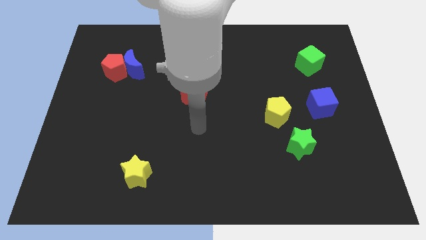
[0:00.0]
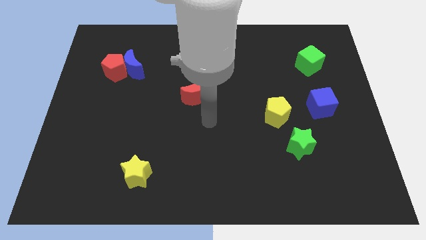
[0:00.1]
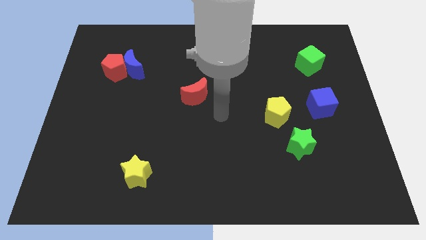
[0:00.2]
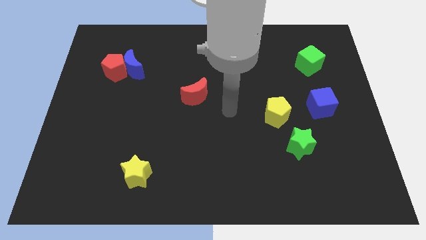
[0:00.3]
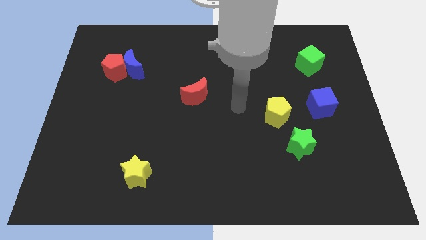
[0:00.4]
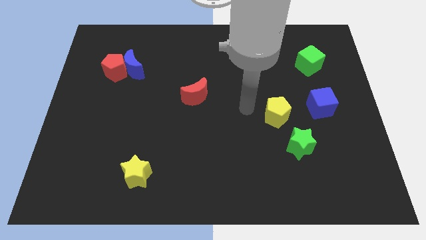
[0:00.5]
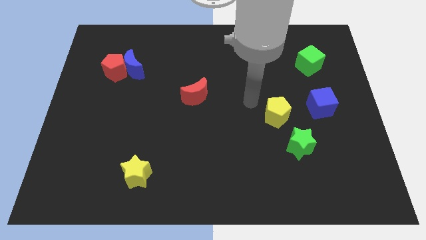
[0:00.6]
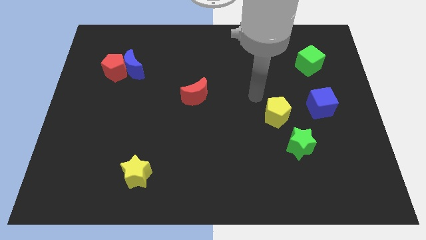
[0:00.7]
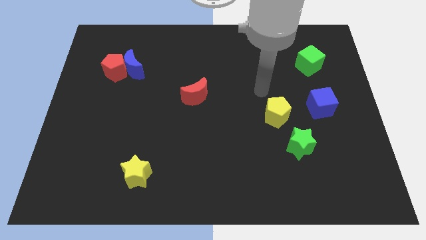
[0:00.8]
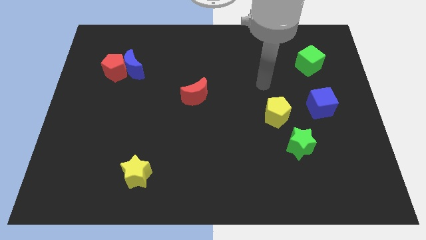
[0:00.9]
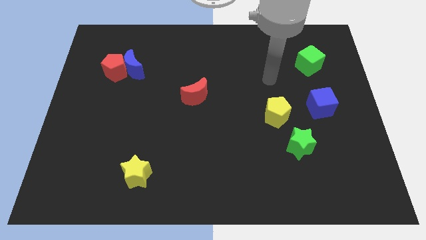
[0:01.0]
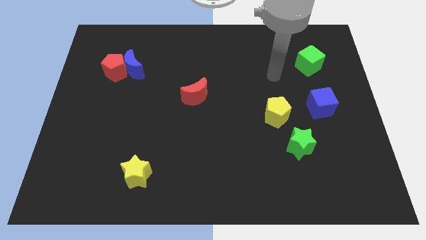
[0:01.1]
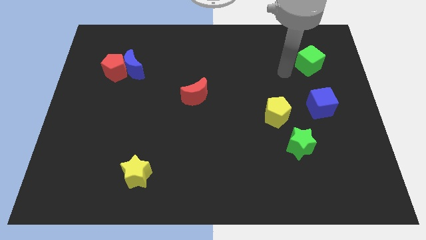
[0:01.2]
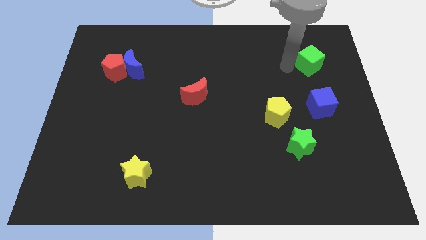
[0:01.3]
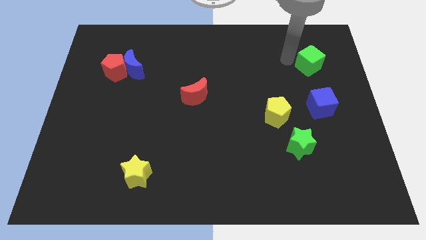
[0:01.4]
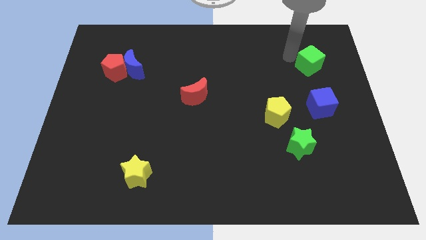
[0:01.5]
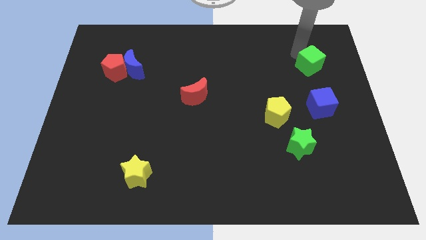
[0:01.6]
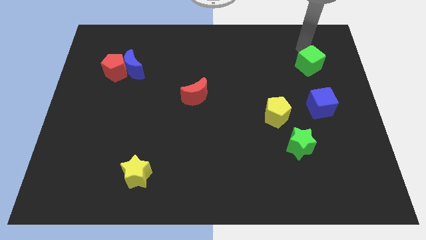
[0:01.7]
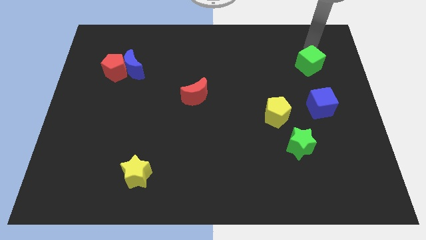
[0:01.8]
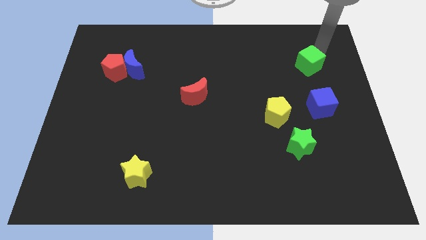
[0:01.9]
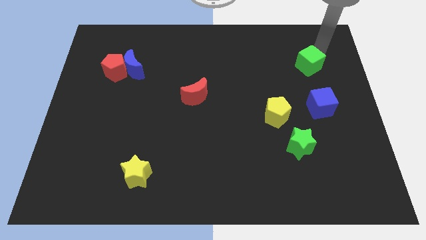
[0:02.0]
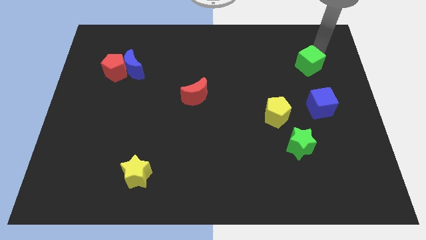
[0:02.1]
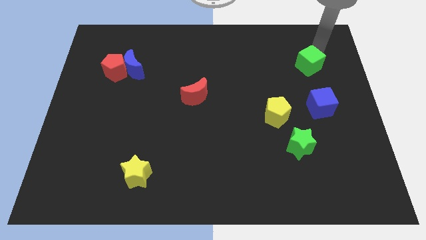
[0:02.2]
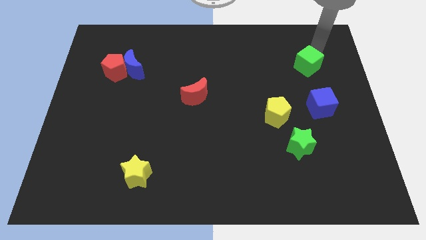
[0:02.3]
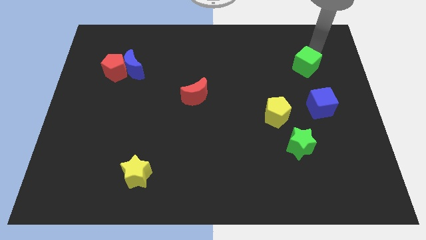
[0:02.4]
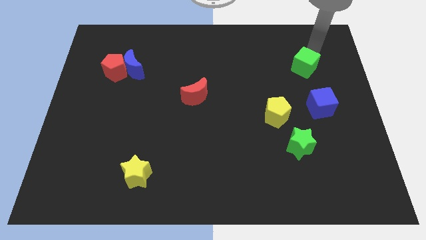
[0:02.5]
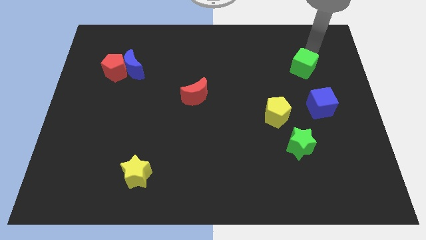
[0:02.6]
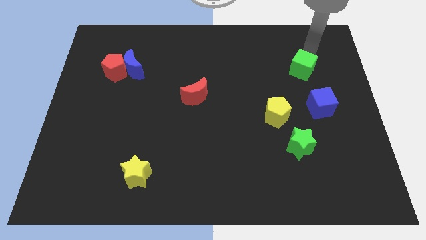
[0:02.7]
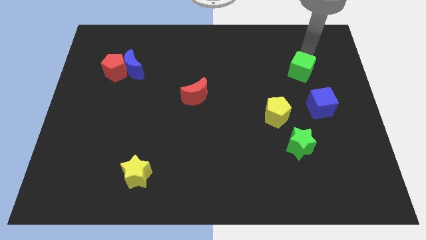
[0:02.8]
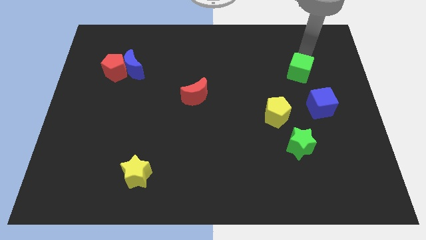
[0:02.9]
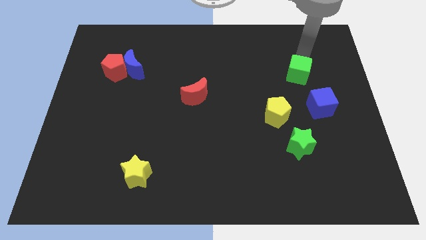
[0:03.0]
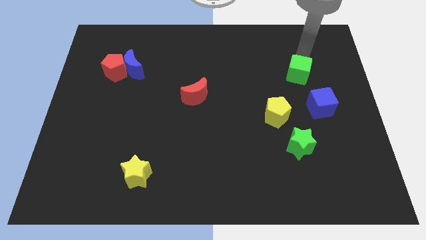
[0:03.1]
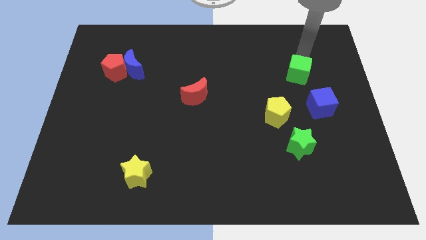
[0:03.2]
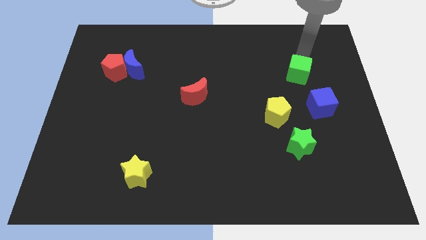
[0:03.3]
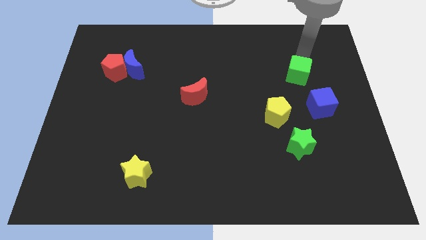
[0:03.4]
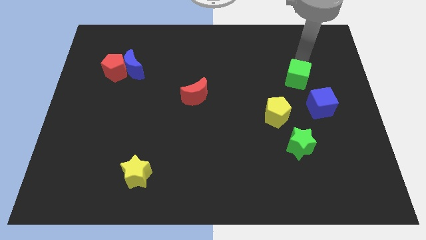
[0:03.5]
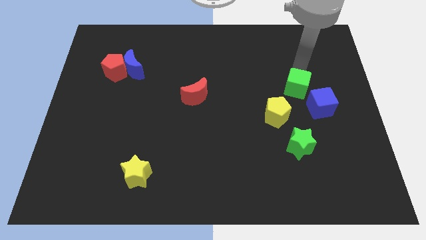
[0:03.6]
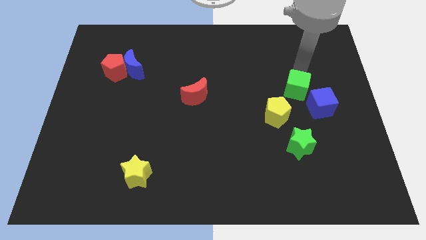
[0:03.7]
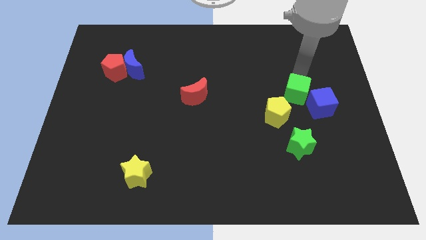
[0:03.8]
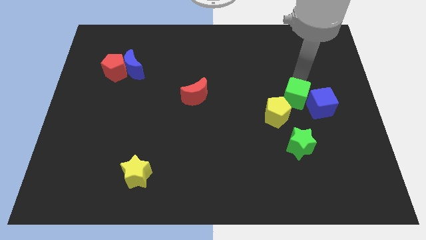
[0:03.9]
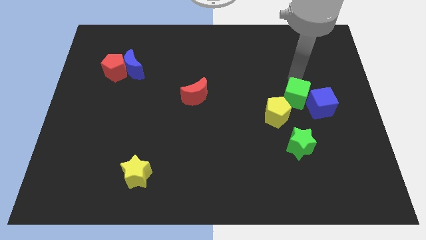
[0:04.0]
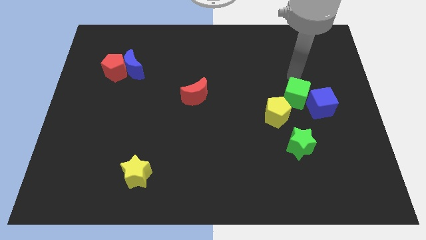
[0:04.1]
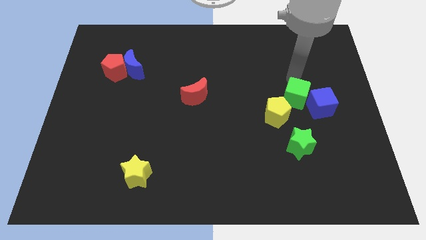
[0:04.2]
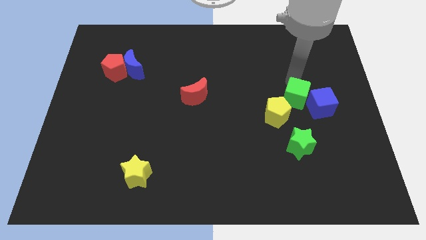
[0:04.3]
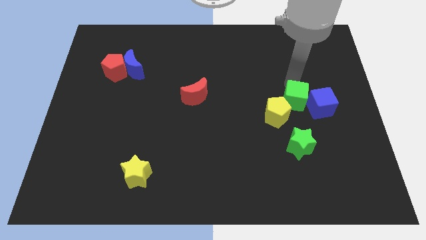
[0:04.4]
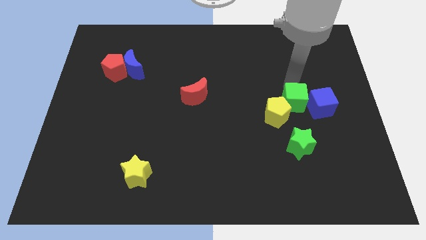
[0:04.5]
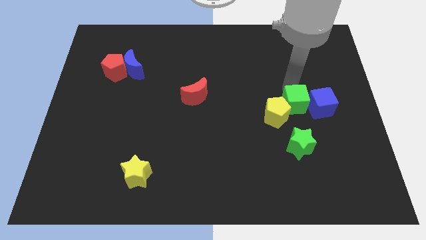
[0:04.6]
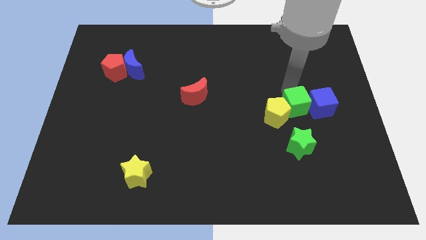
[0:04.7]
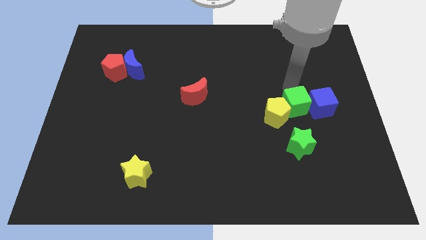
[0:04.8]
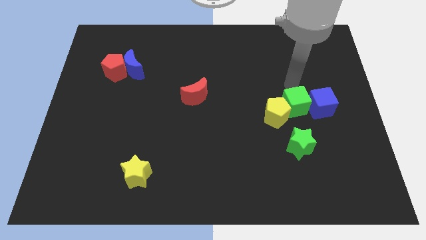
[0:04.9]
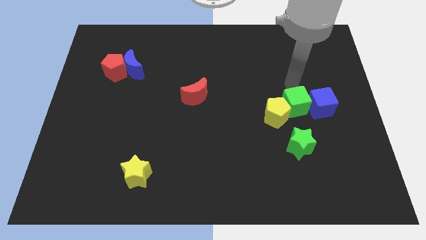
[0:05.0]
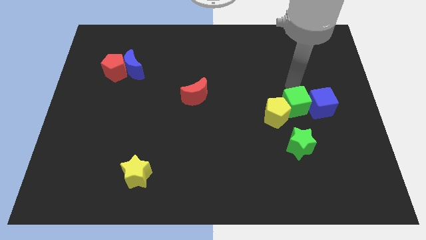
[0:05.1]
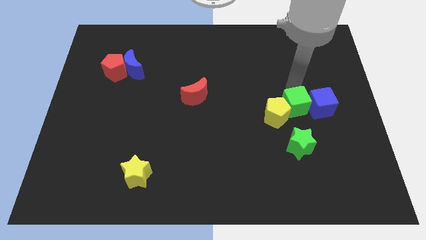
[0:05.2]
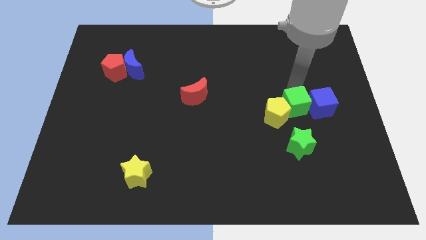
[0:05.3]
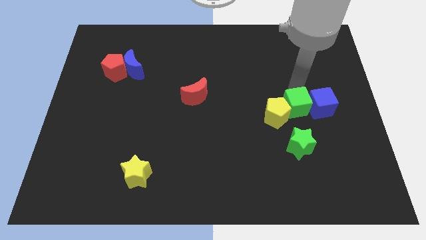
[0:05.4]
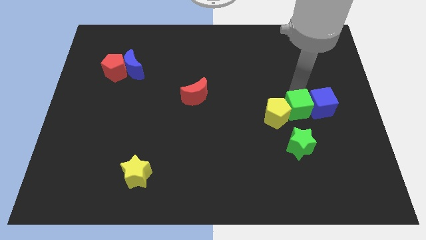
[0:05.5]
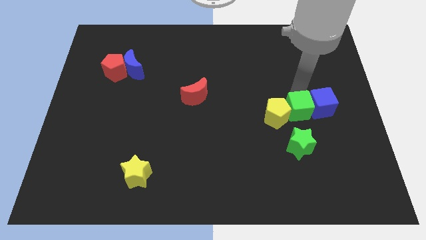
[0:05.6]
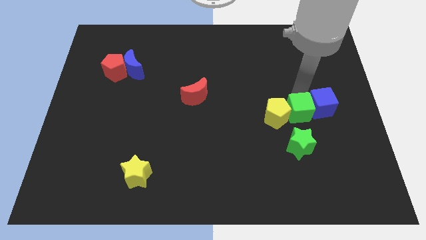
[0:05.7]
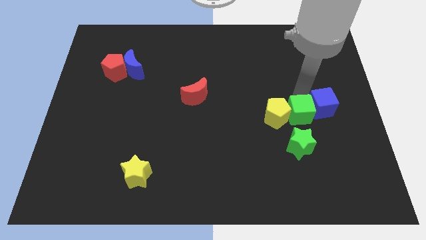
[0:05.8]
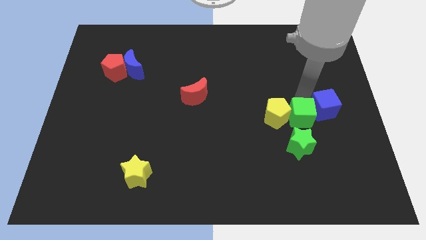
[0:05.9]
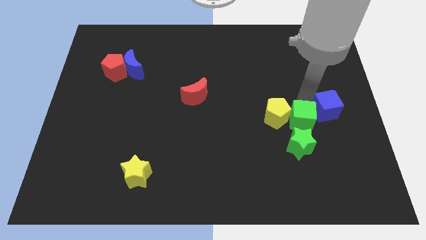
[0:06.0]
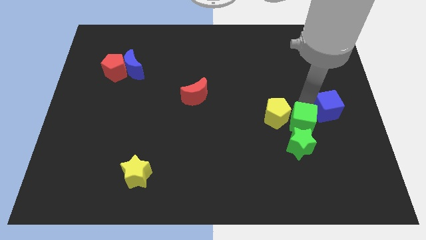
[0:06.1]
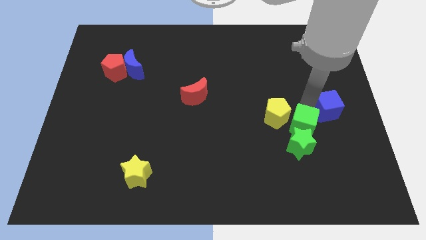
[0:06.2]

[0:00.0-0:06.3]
put the green cube close to the green star
